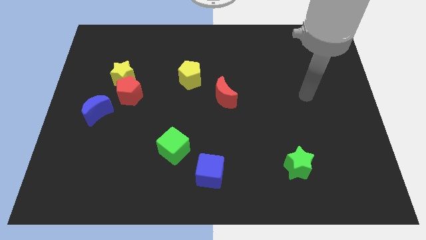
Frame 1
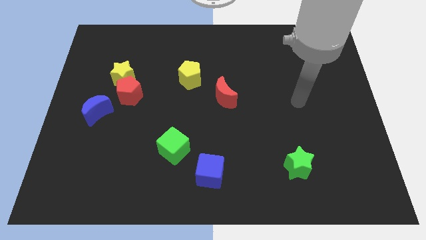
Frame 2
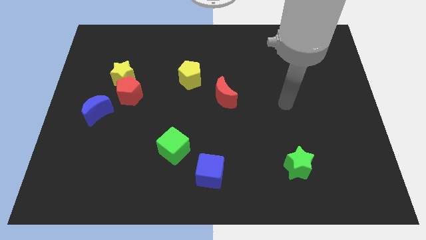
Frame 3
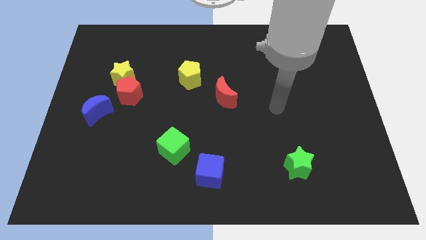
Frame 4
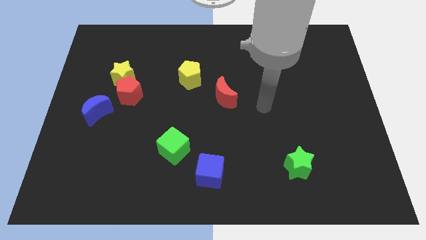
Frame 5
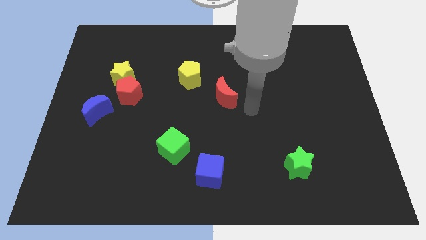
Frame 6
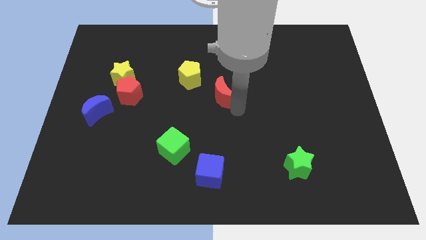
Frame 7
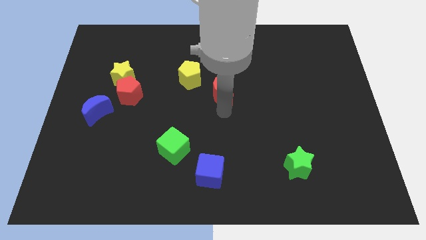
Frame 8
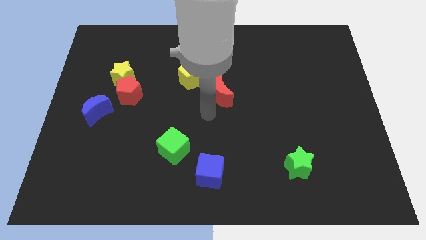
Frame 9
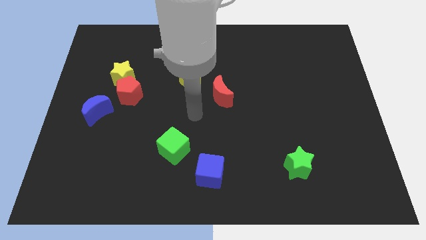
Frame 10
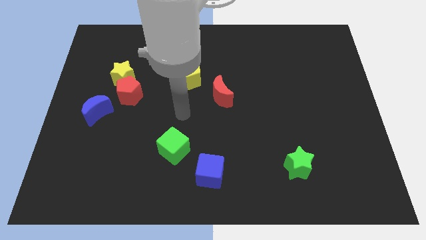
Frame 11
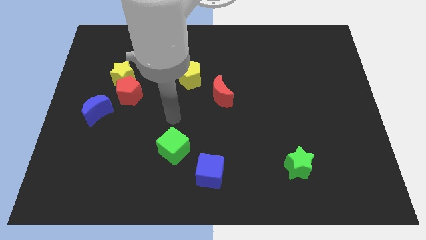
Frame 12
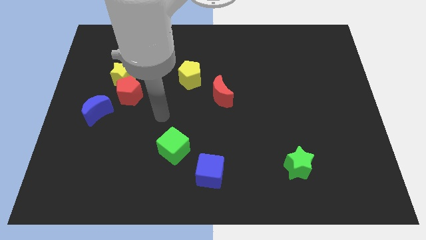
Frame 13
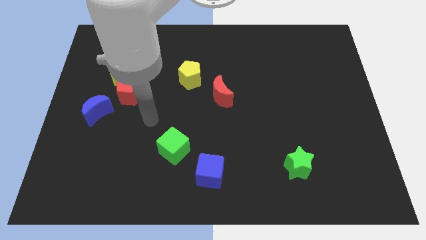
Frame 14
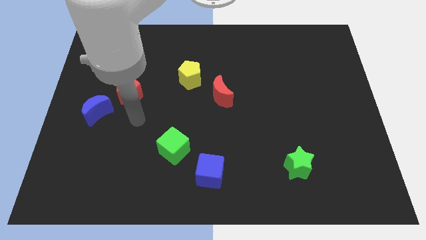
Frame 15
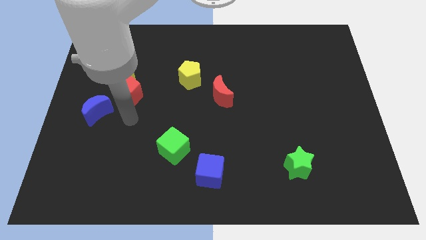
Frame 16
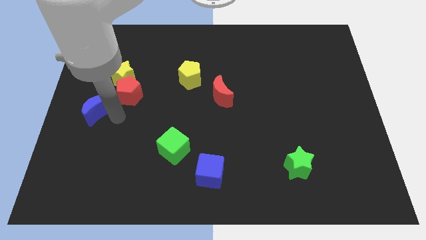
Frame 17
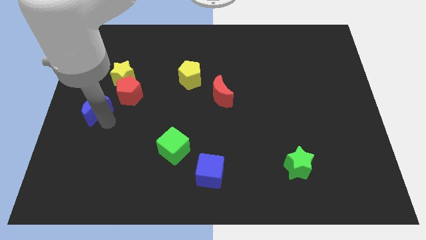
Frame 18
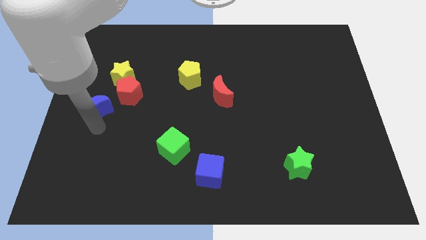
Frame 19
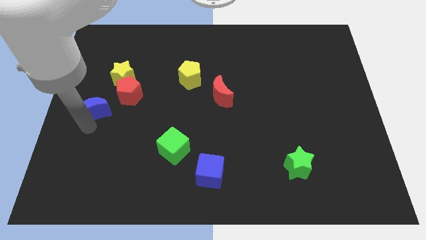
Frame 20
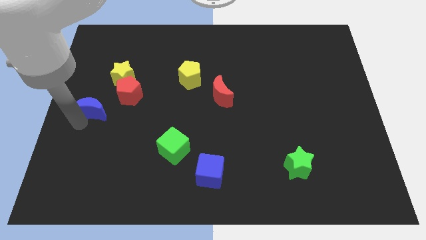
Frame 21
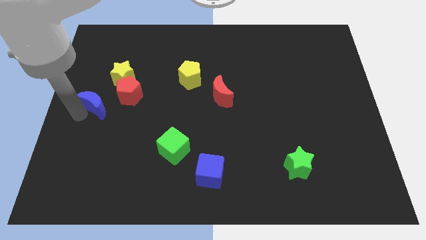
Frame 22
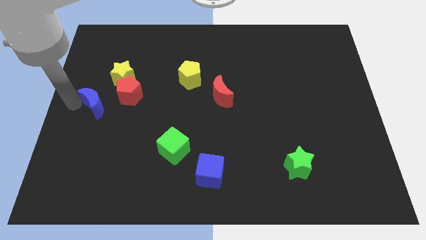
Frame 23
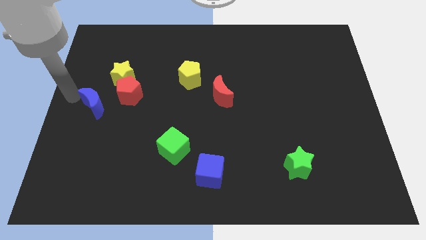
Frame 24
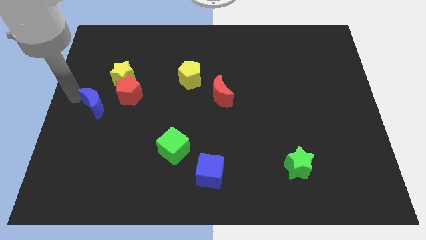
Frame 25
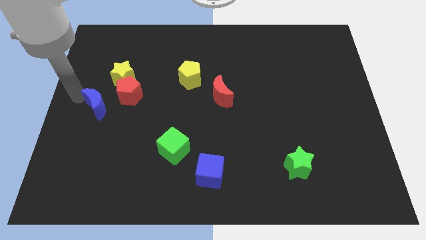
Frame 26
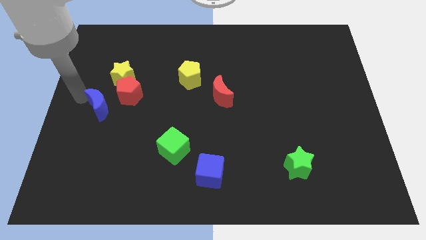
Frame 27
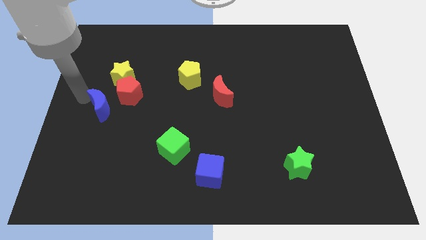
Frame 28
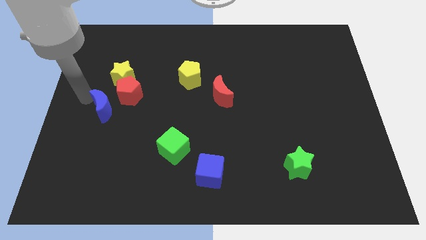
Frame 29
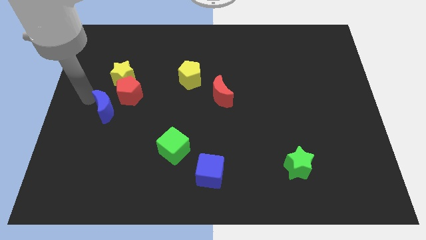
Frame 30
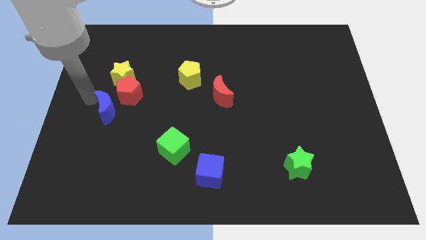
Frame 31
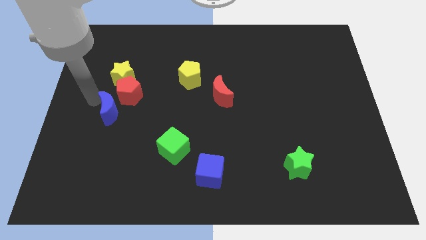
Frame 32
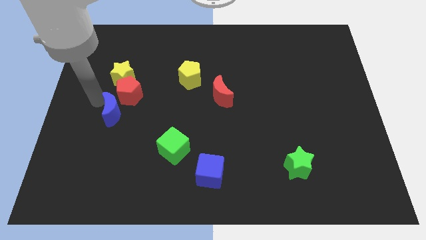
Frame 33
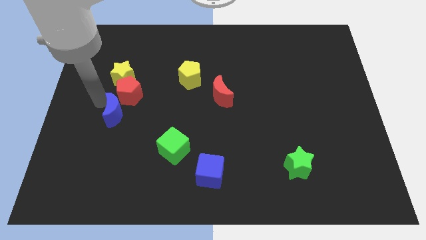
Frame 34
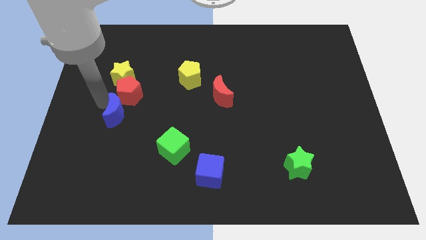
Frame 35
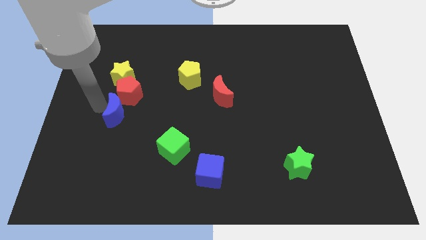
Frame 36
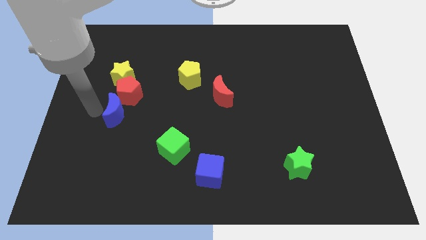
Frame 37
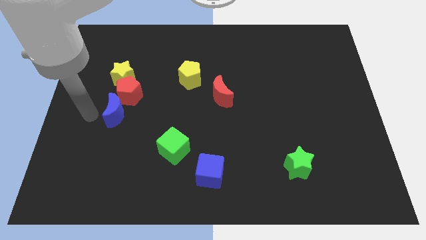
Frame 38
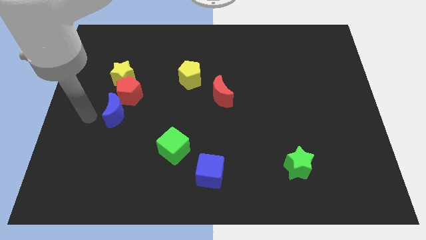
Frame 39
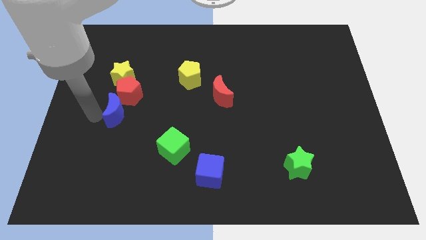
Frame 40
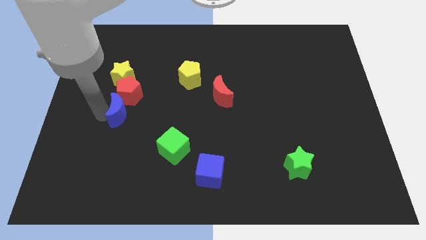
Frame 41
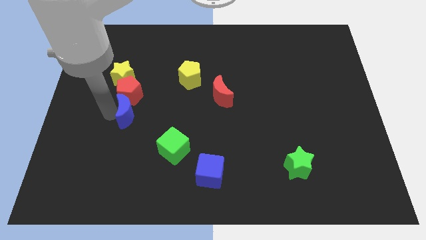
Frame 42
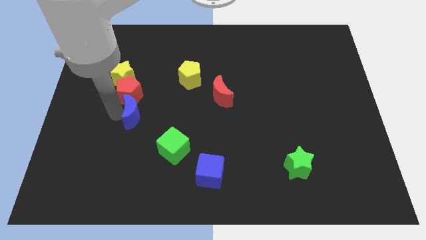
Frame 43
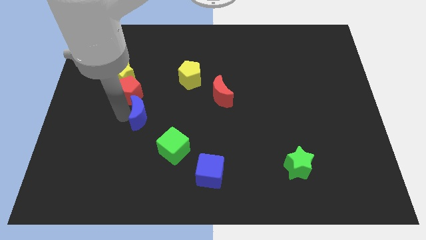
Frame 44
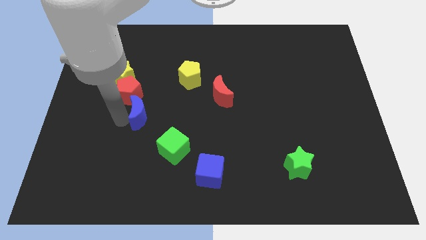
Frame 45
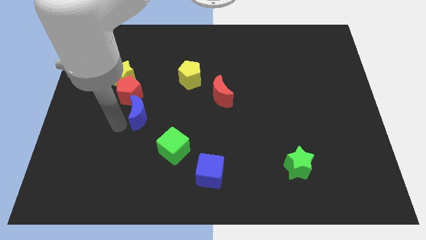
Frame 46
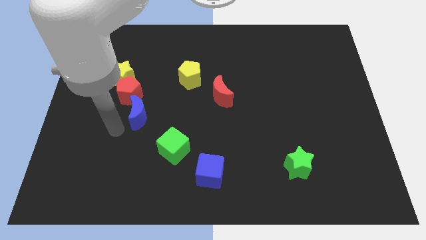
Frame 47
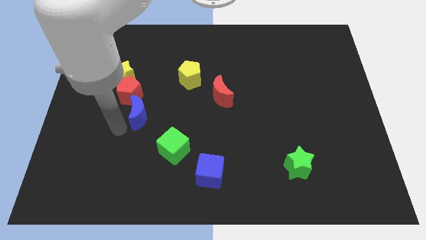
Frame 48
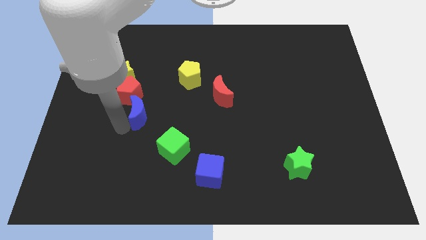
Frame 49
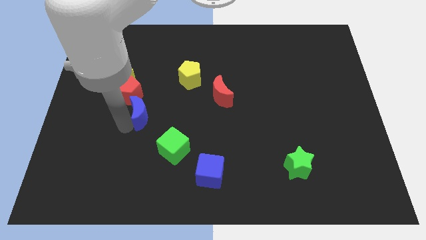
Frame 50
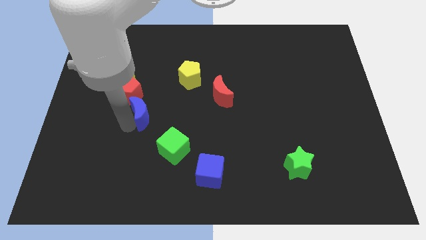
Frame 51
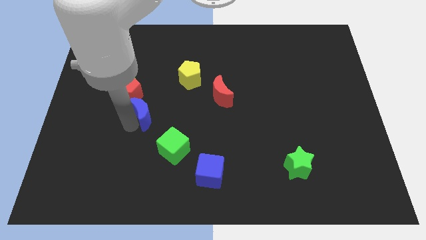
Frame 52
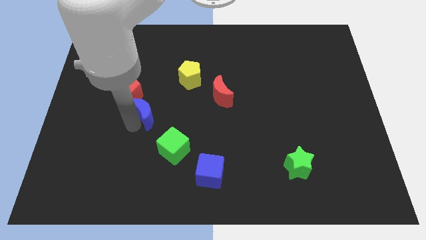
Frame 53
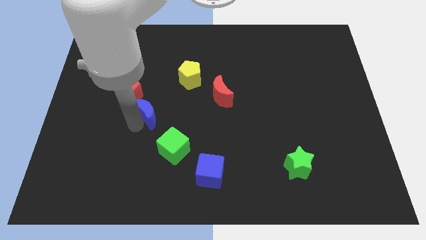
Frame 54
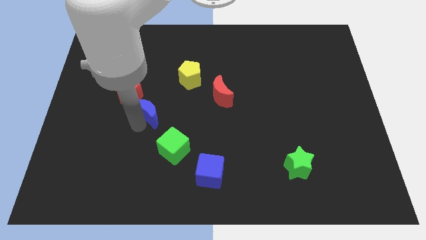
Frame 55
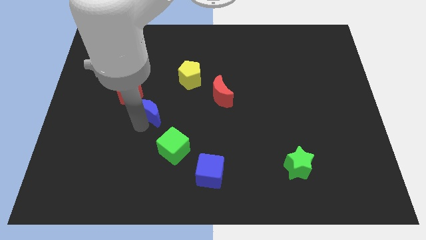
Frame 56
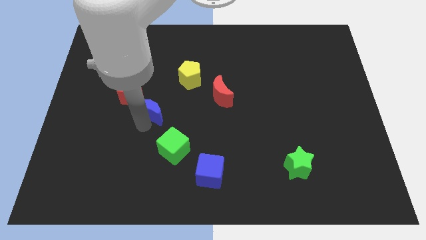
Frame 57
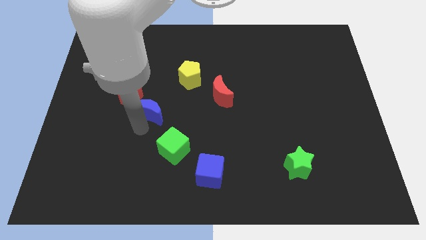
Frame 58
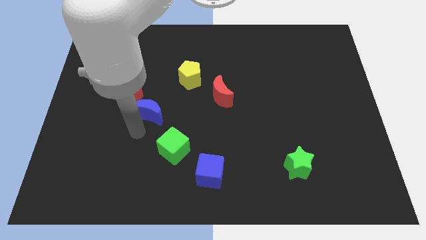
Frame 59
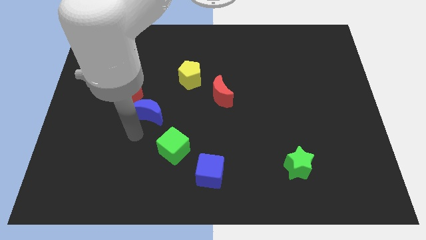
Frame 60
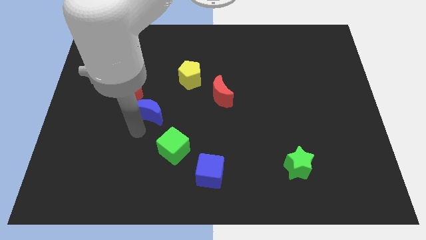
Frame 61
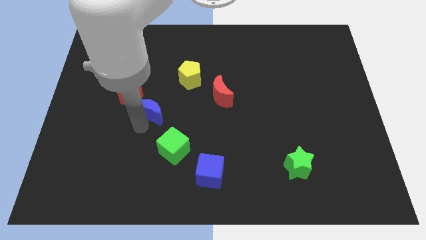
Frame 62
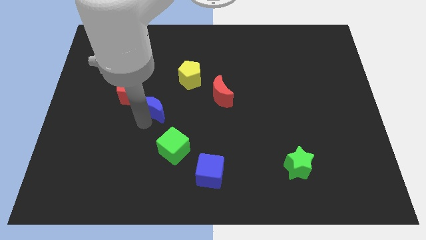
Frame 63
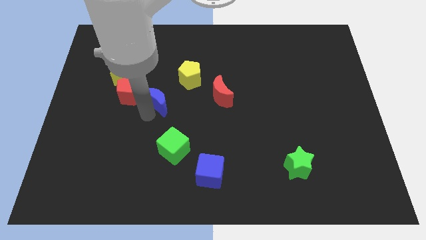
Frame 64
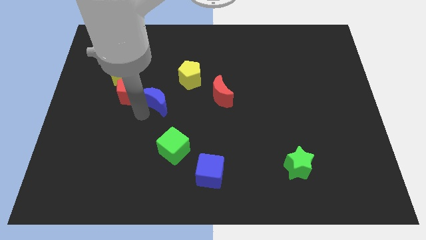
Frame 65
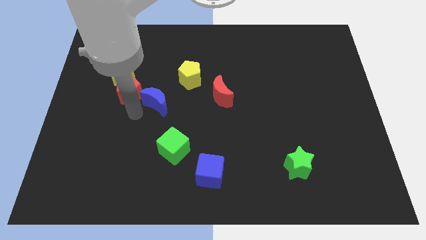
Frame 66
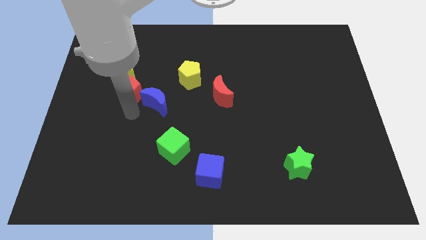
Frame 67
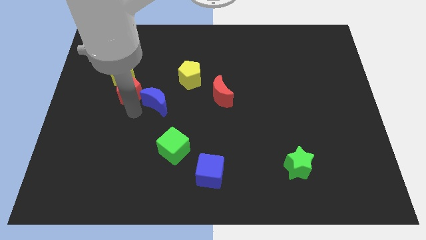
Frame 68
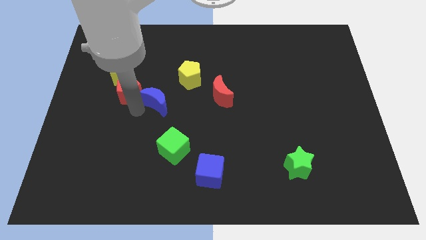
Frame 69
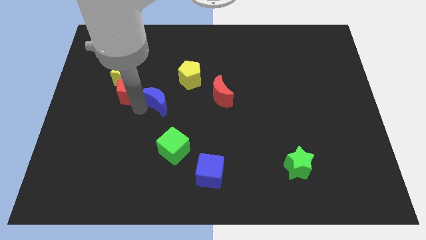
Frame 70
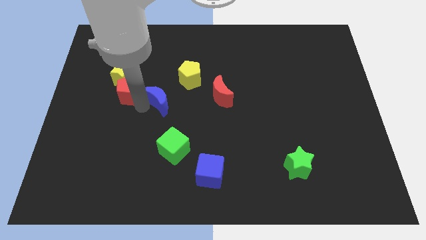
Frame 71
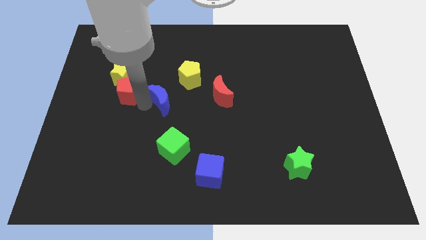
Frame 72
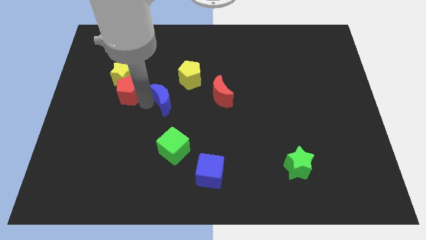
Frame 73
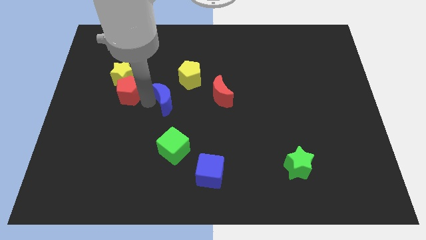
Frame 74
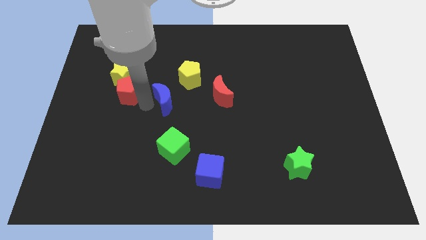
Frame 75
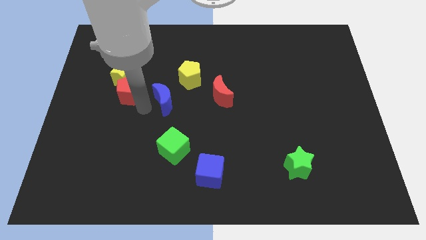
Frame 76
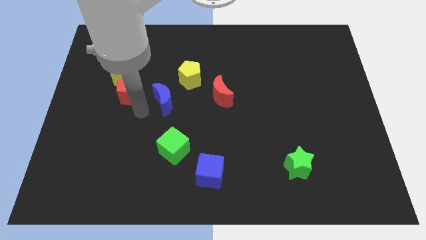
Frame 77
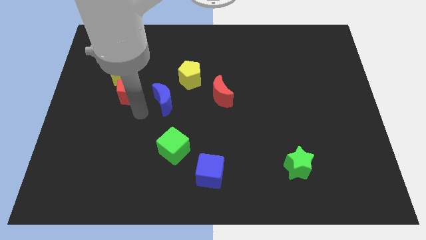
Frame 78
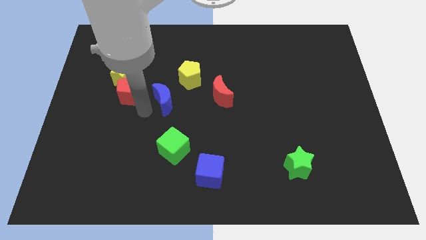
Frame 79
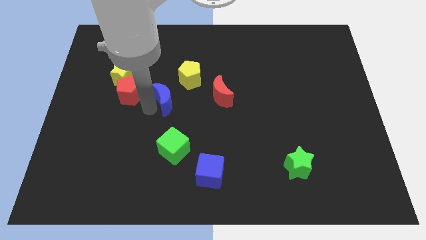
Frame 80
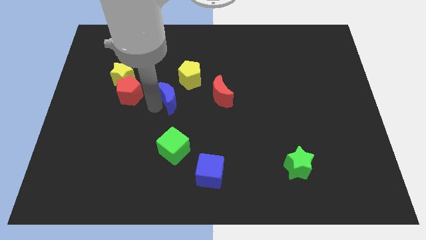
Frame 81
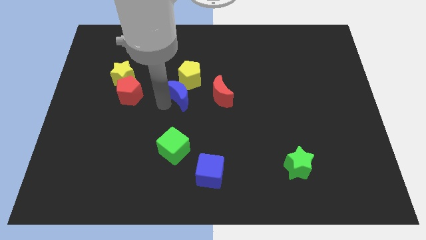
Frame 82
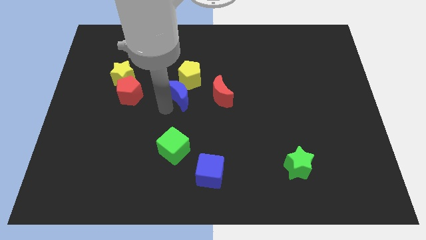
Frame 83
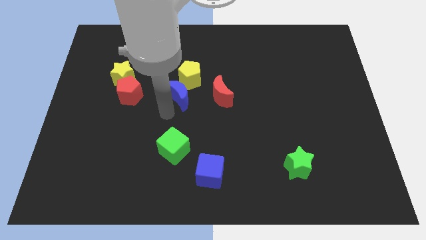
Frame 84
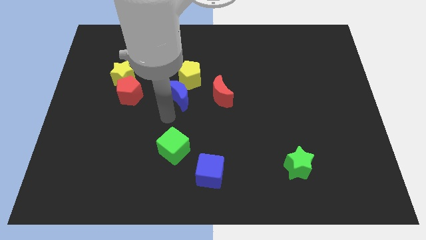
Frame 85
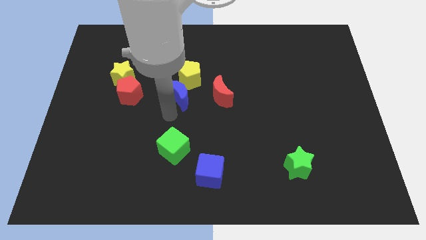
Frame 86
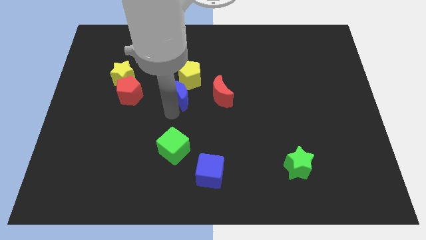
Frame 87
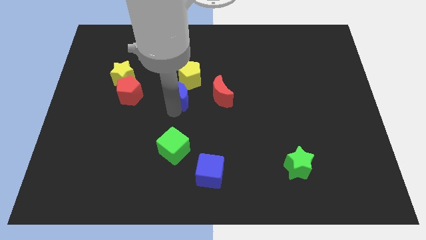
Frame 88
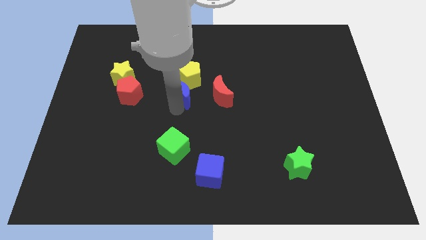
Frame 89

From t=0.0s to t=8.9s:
put the blue moon next to the yellow pentagon
